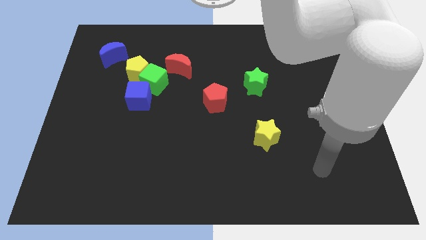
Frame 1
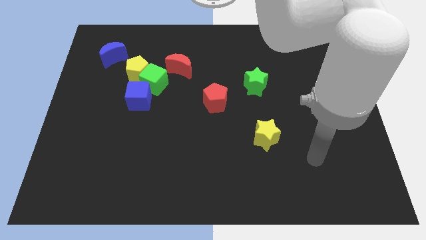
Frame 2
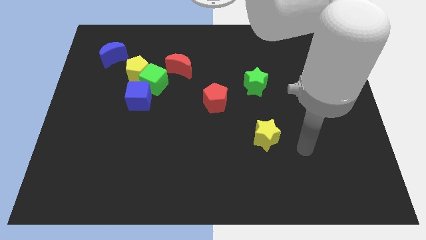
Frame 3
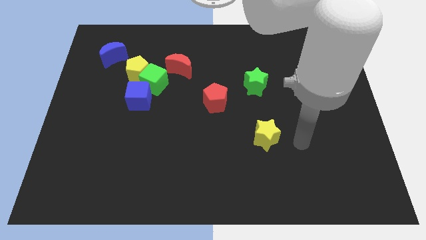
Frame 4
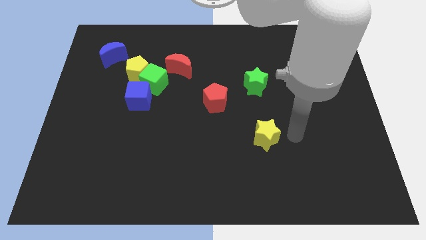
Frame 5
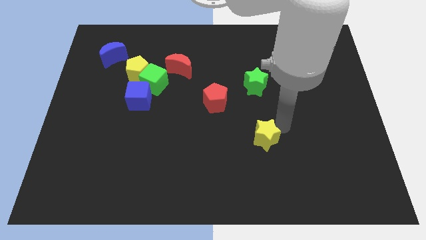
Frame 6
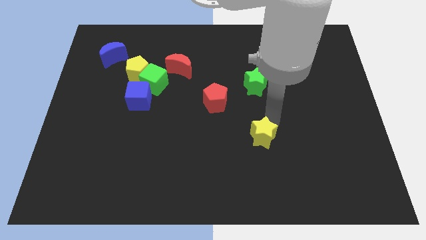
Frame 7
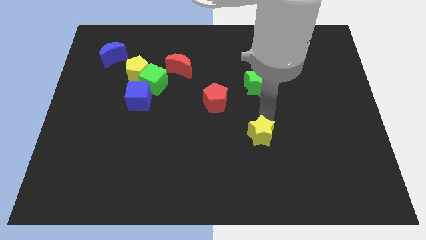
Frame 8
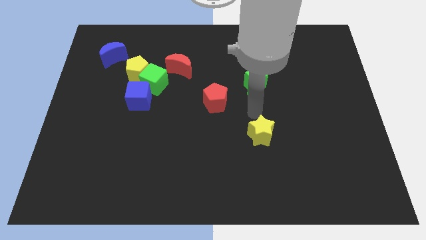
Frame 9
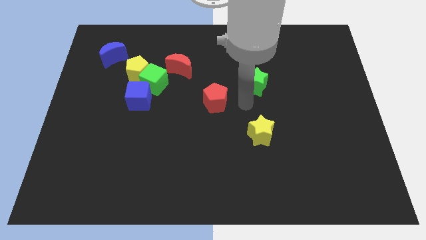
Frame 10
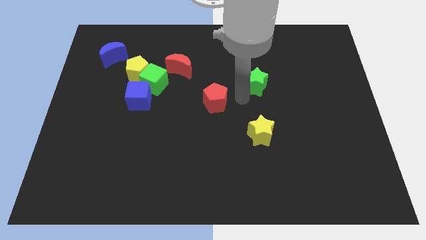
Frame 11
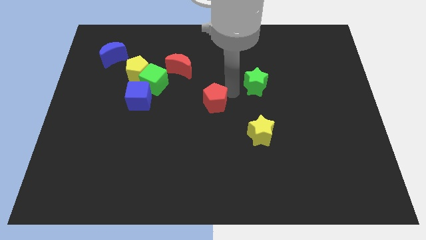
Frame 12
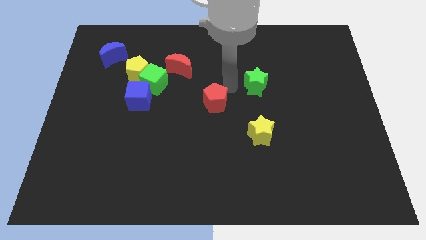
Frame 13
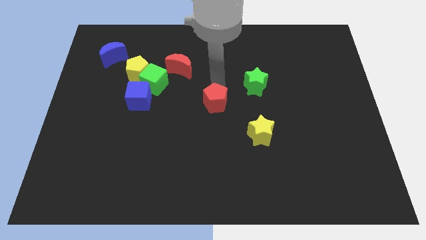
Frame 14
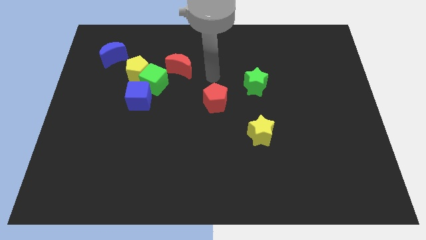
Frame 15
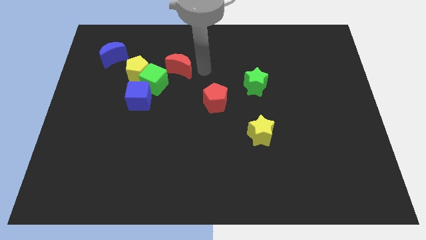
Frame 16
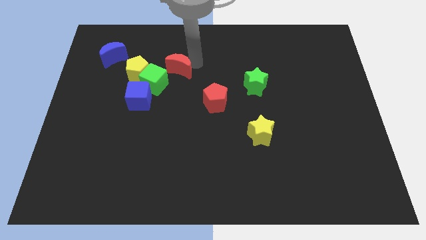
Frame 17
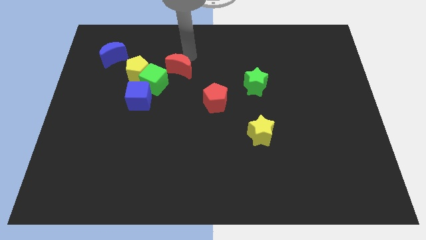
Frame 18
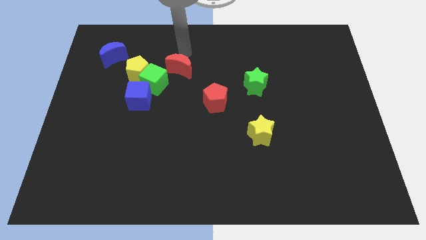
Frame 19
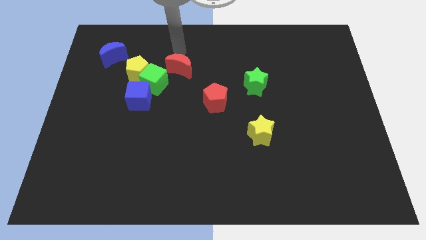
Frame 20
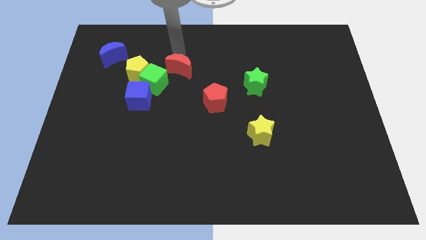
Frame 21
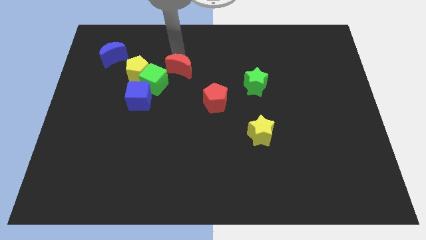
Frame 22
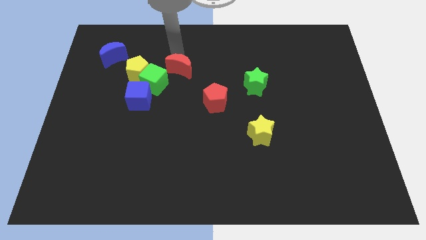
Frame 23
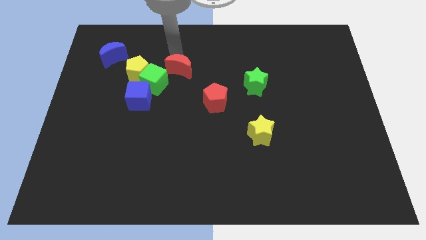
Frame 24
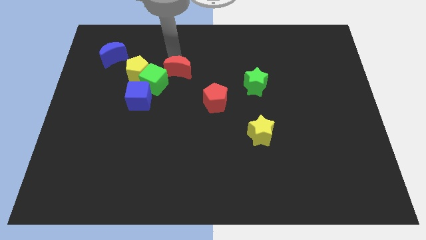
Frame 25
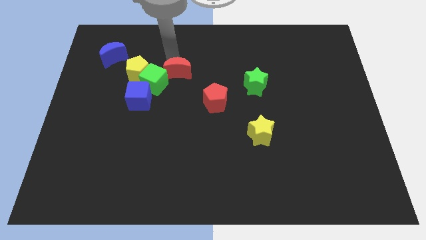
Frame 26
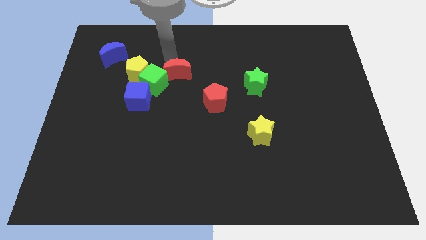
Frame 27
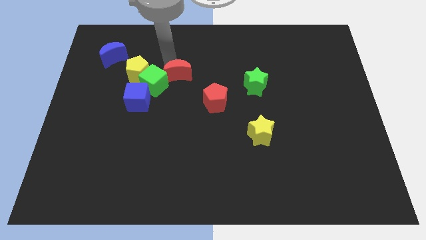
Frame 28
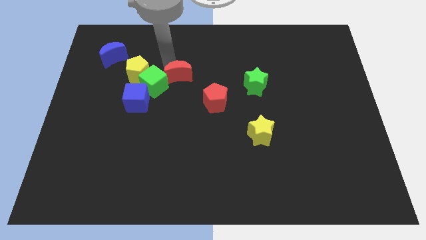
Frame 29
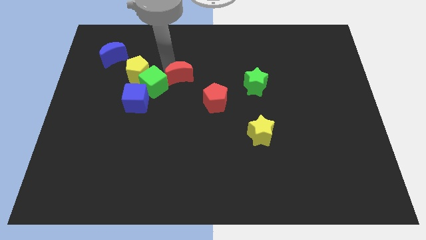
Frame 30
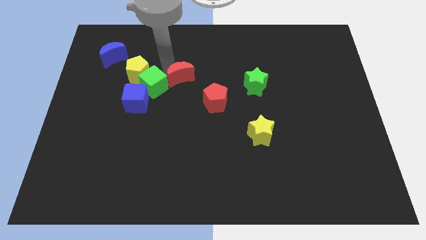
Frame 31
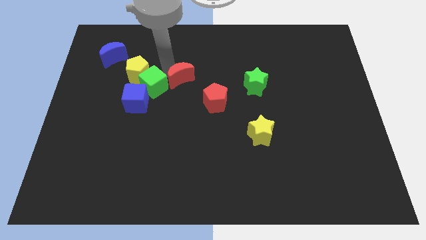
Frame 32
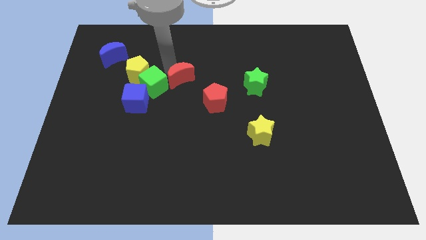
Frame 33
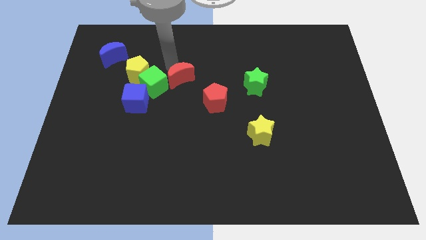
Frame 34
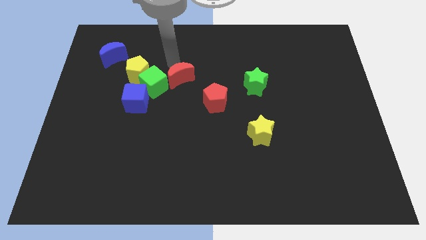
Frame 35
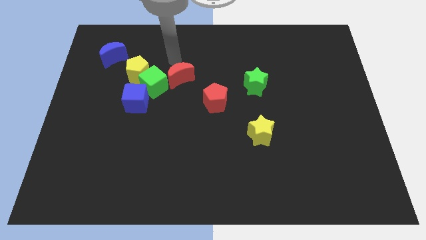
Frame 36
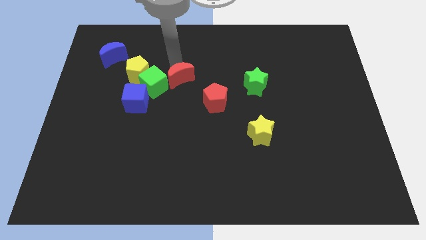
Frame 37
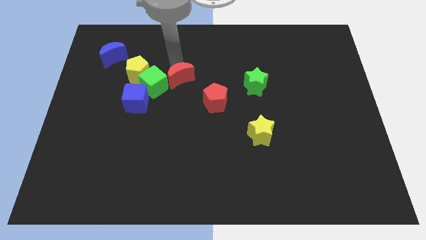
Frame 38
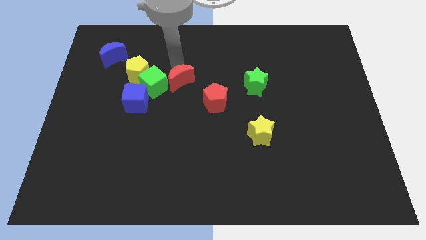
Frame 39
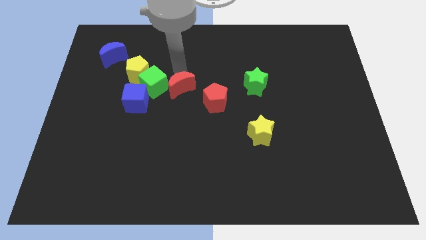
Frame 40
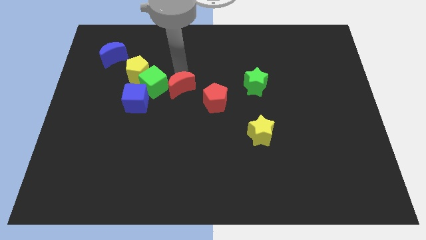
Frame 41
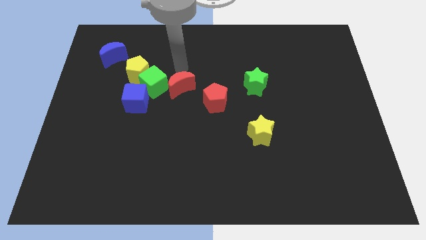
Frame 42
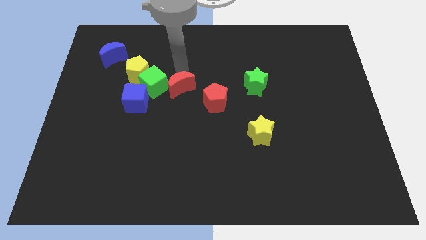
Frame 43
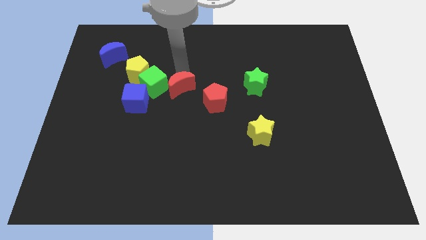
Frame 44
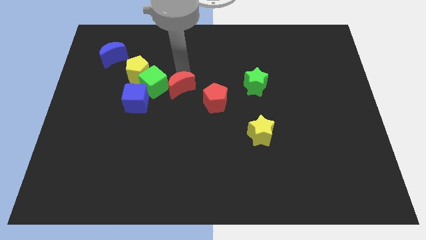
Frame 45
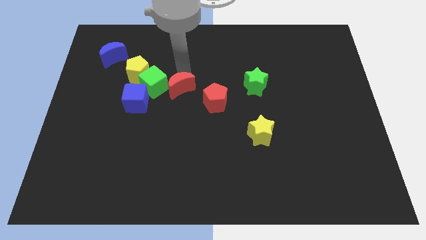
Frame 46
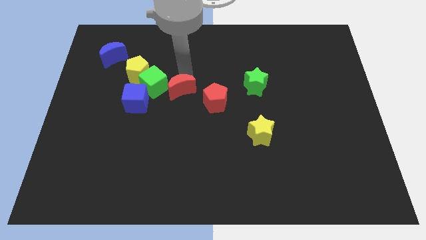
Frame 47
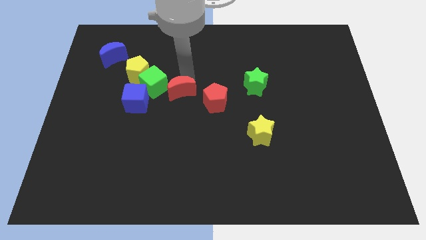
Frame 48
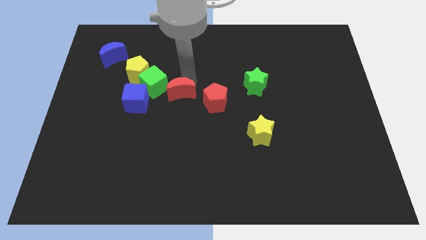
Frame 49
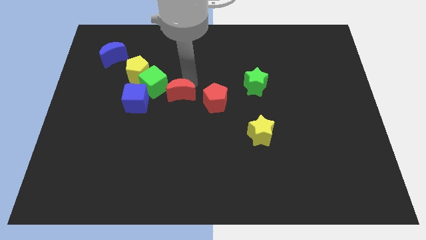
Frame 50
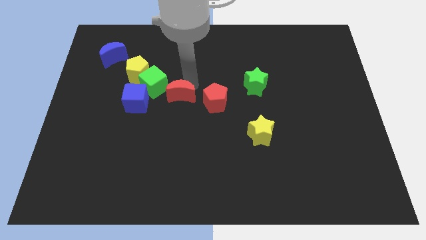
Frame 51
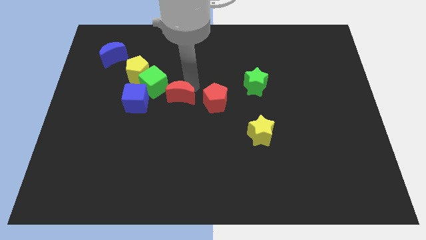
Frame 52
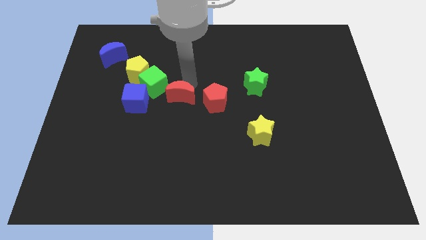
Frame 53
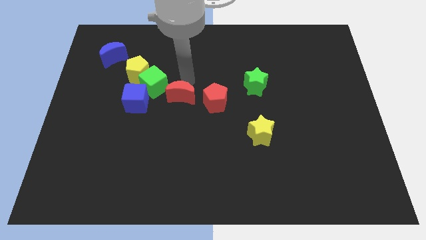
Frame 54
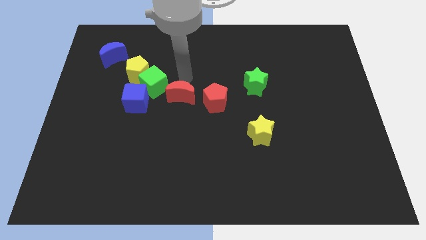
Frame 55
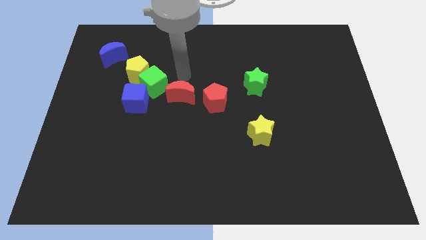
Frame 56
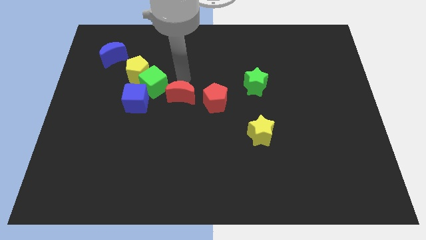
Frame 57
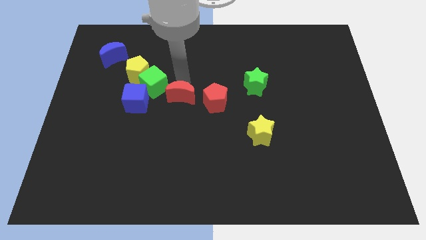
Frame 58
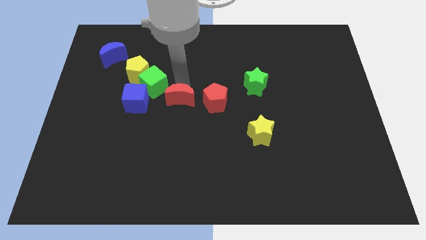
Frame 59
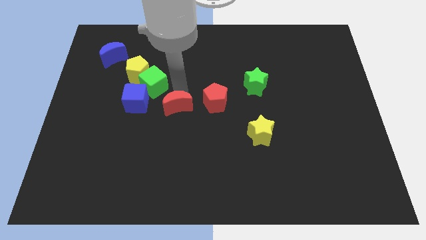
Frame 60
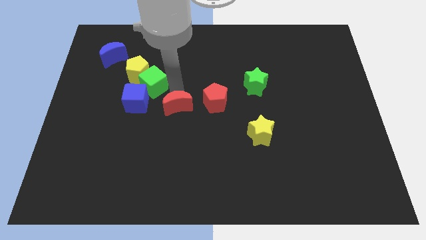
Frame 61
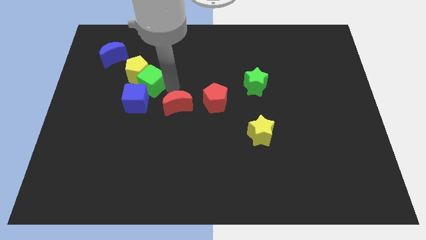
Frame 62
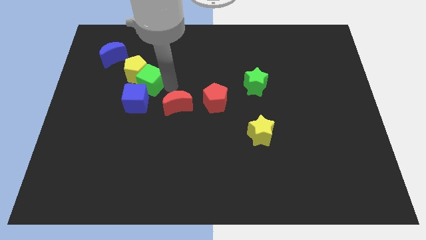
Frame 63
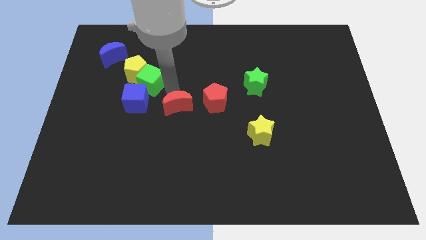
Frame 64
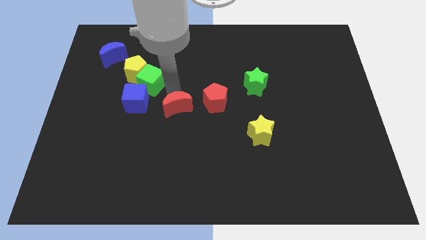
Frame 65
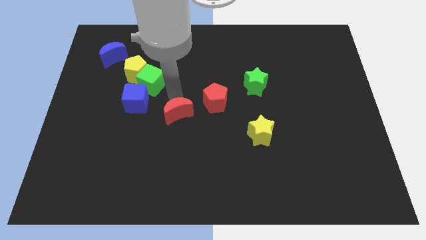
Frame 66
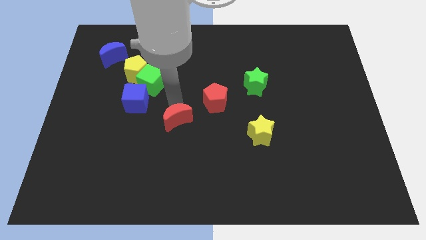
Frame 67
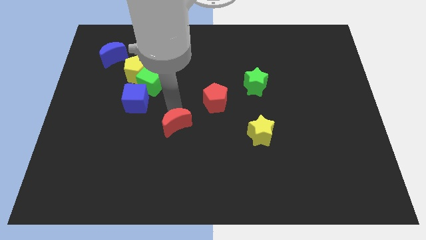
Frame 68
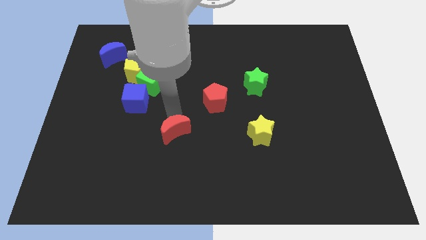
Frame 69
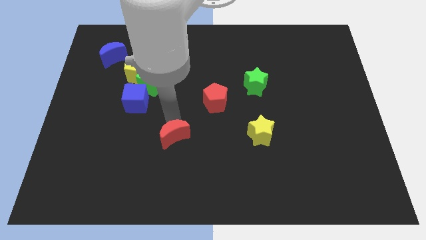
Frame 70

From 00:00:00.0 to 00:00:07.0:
move the red moon downwards

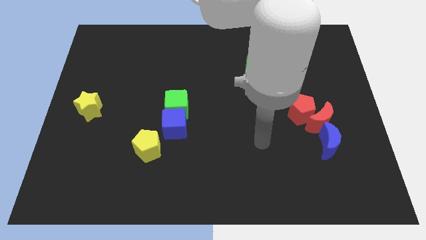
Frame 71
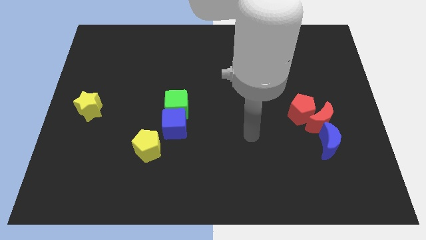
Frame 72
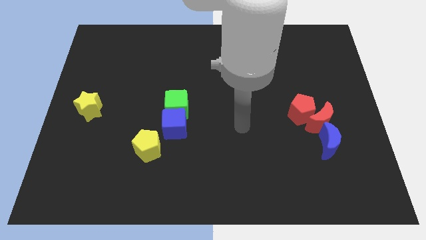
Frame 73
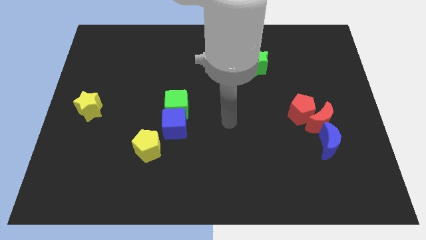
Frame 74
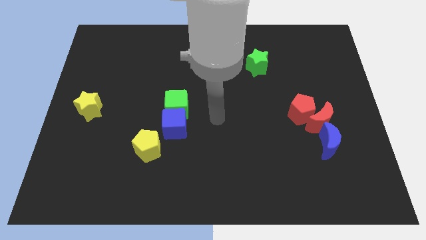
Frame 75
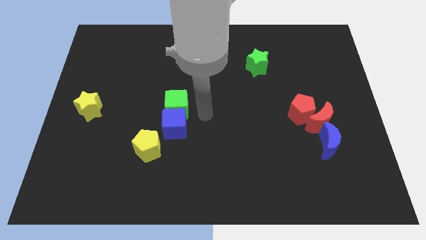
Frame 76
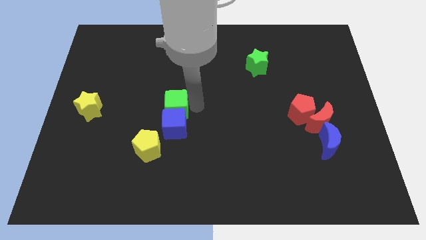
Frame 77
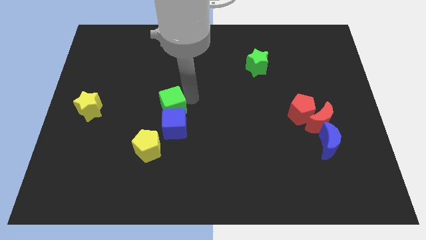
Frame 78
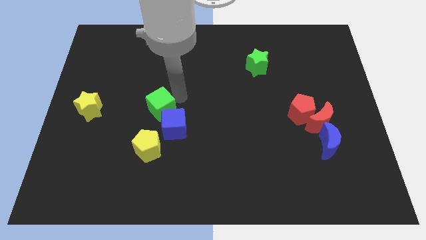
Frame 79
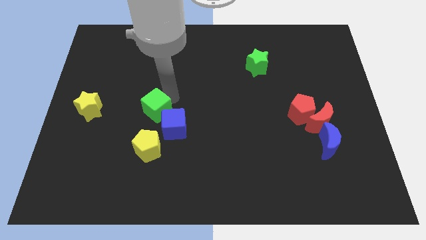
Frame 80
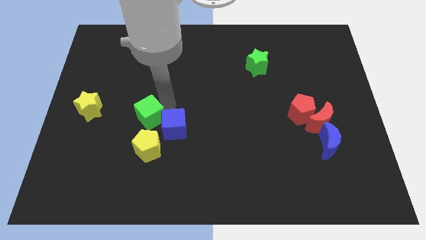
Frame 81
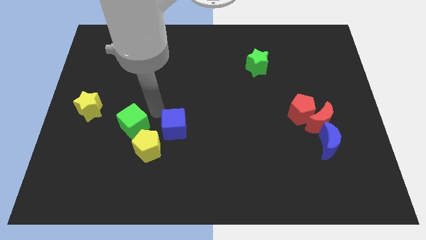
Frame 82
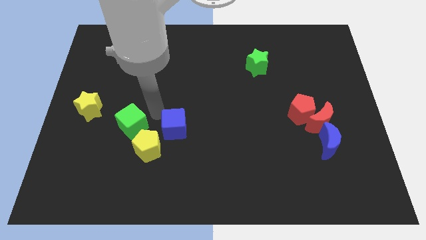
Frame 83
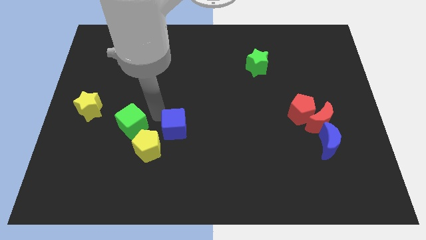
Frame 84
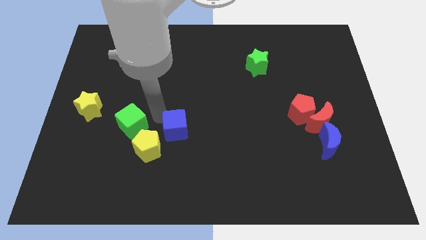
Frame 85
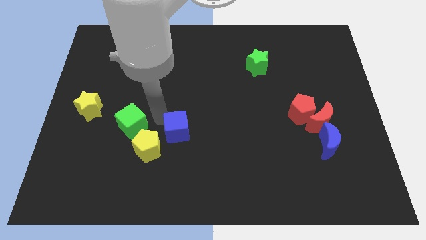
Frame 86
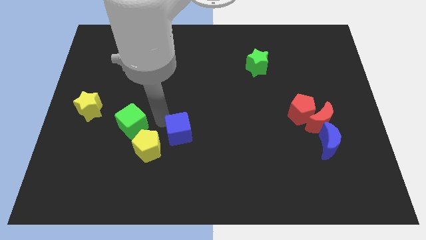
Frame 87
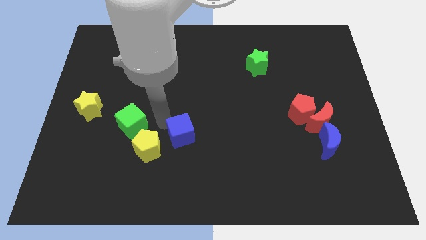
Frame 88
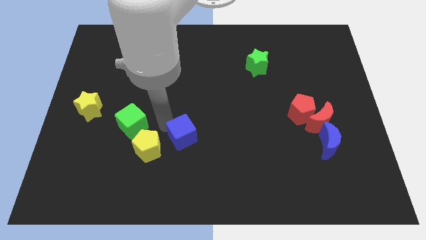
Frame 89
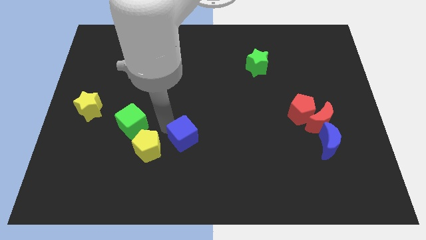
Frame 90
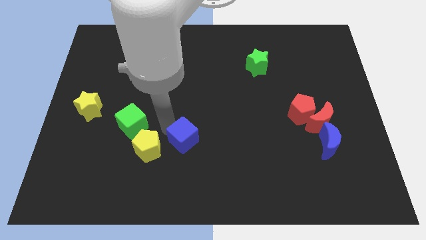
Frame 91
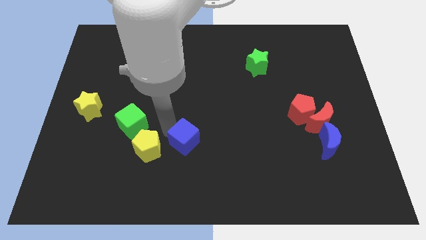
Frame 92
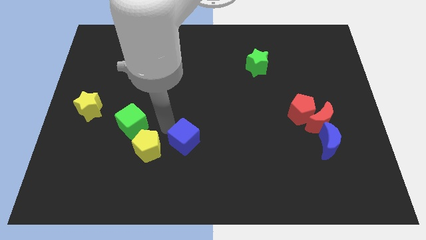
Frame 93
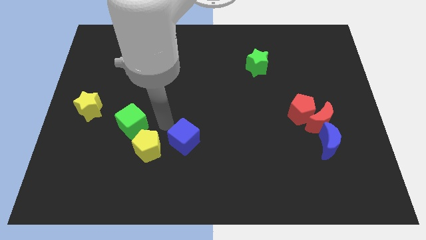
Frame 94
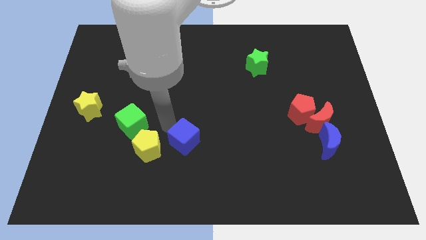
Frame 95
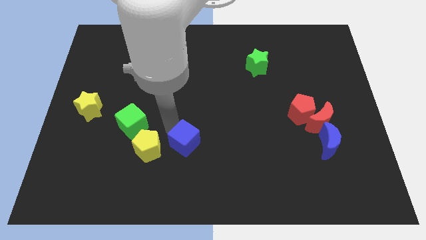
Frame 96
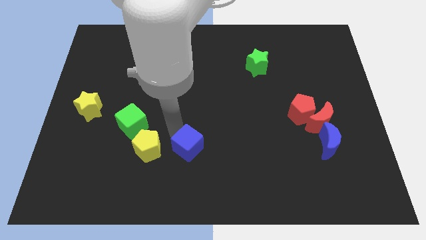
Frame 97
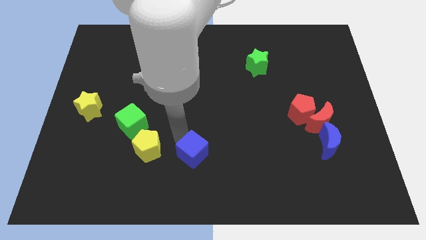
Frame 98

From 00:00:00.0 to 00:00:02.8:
move the blue cube downwards and to the right slightly
